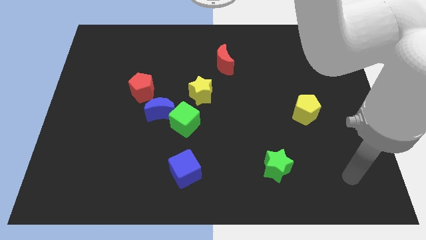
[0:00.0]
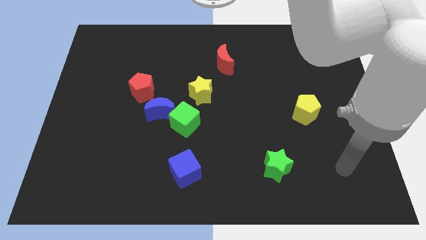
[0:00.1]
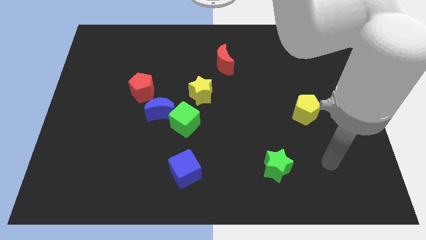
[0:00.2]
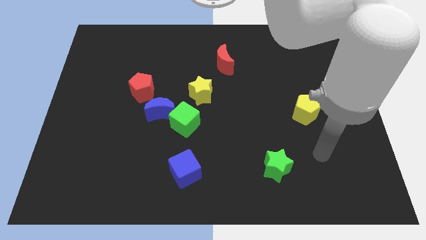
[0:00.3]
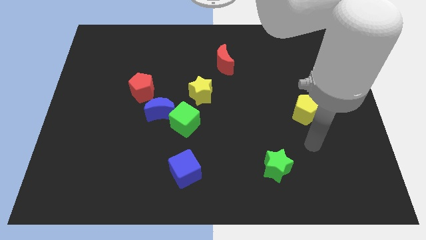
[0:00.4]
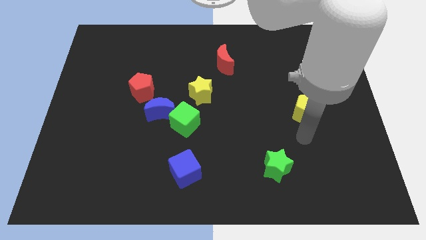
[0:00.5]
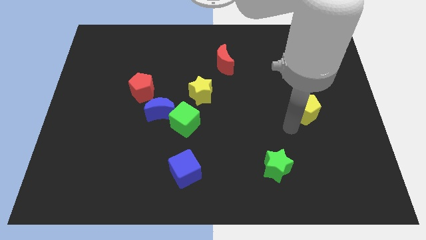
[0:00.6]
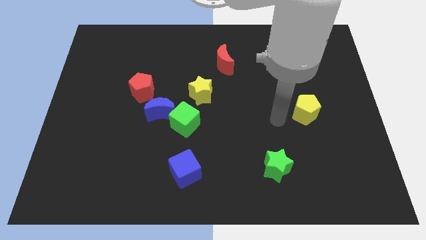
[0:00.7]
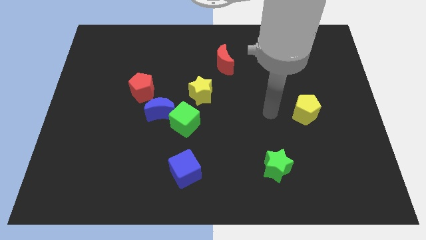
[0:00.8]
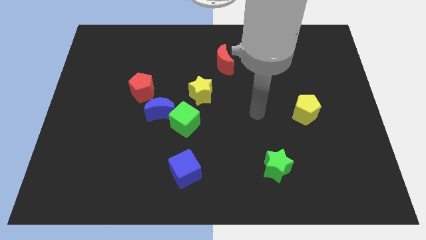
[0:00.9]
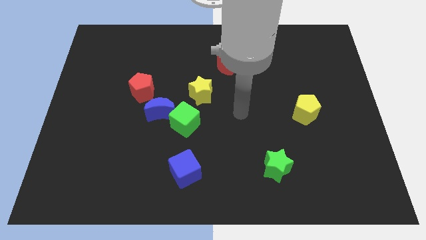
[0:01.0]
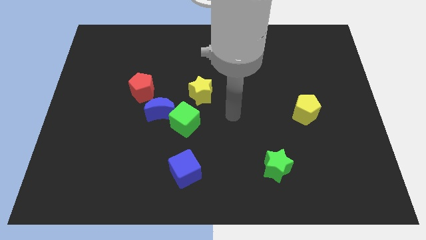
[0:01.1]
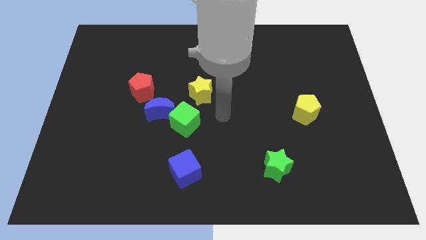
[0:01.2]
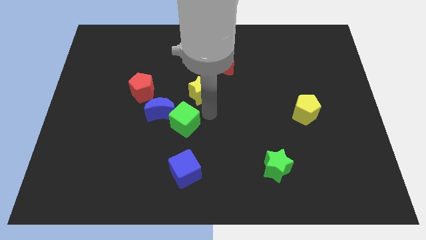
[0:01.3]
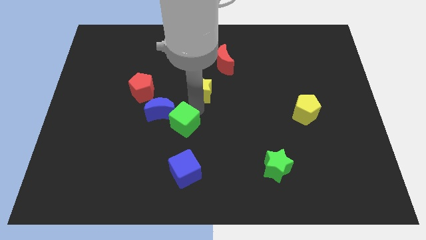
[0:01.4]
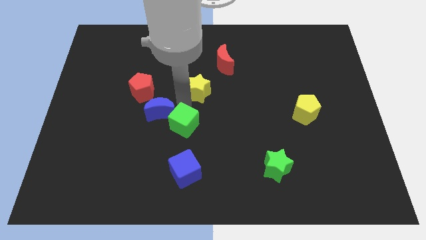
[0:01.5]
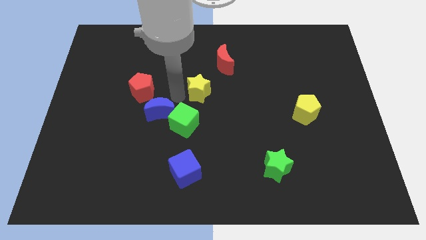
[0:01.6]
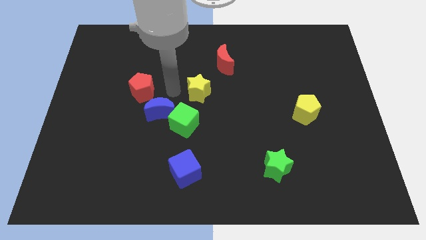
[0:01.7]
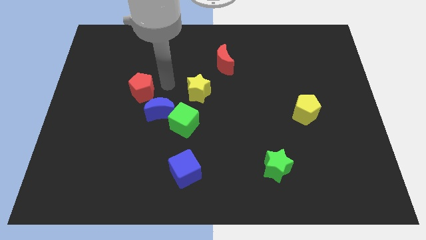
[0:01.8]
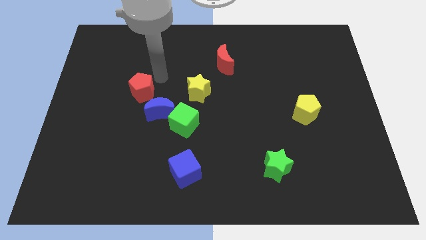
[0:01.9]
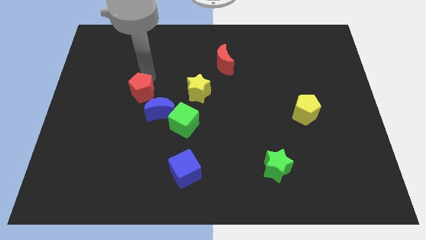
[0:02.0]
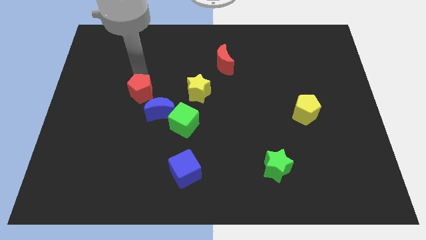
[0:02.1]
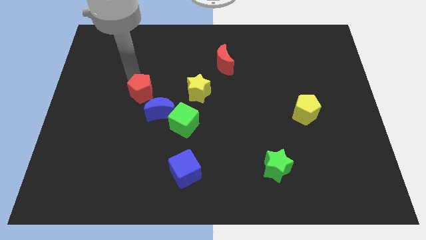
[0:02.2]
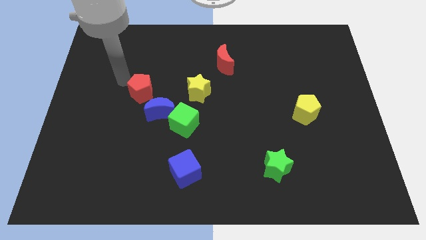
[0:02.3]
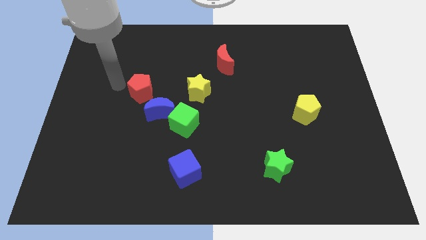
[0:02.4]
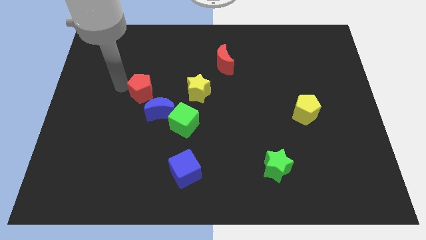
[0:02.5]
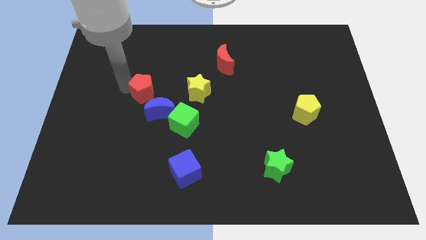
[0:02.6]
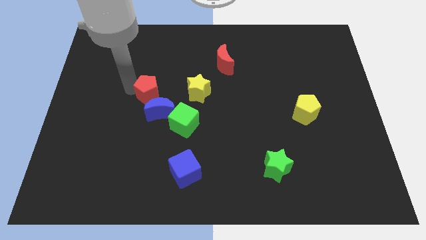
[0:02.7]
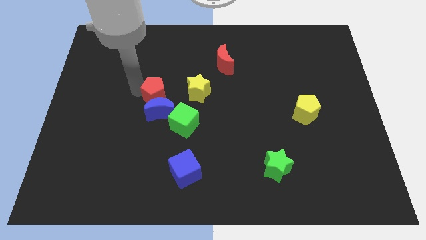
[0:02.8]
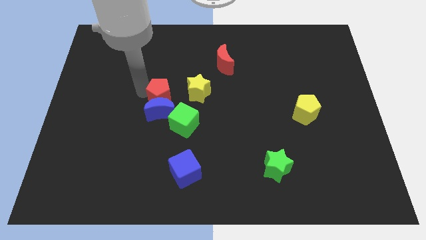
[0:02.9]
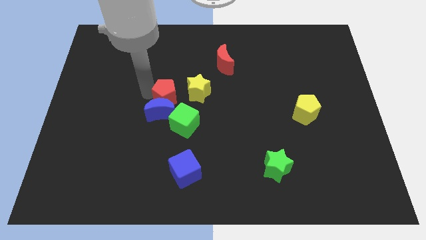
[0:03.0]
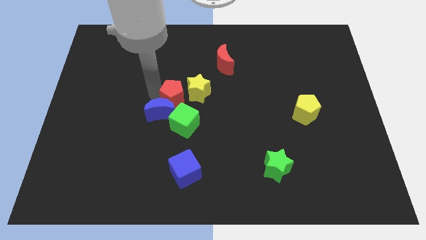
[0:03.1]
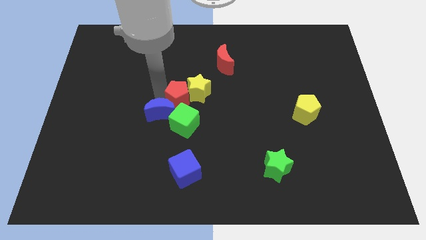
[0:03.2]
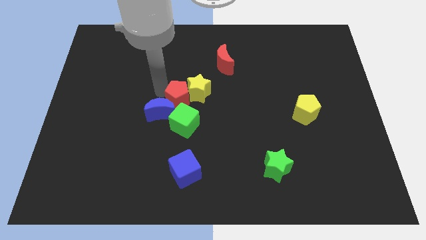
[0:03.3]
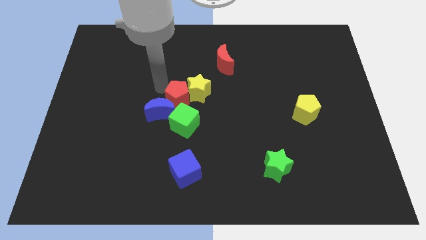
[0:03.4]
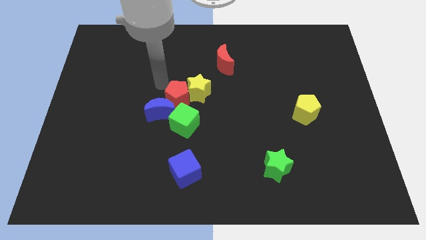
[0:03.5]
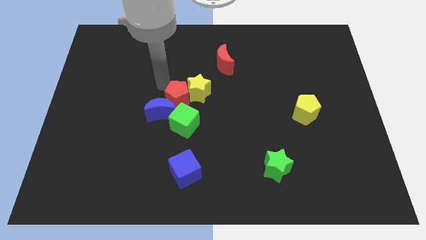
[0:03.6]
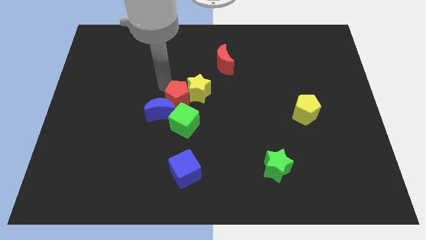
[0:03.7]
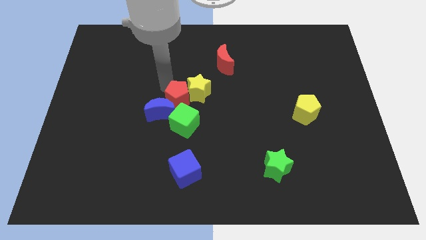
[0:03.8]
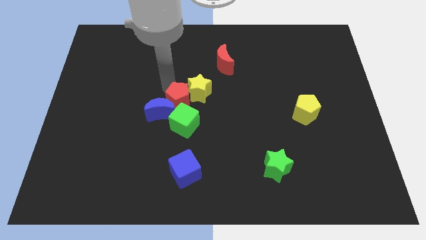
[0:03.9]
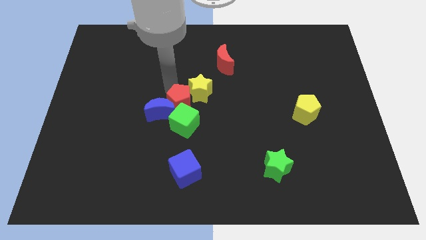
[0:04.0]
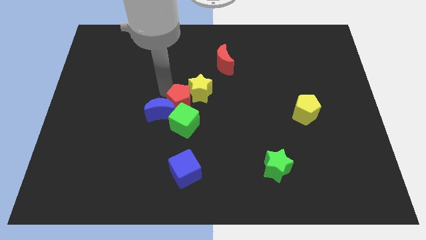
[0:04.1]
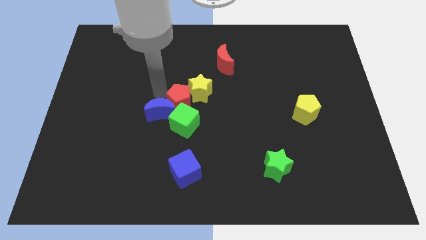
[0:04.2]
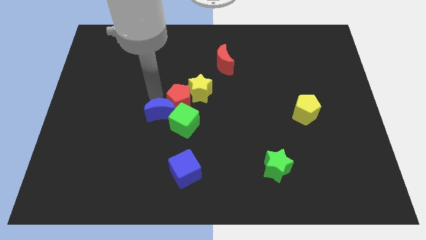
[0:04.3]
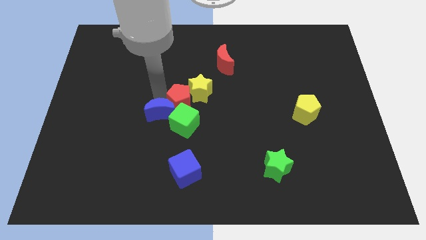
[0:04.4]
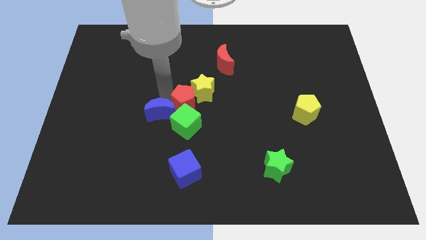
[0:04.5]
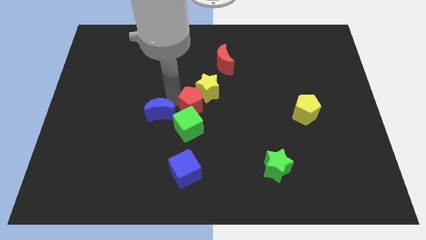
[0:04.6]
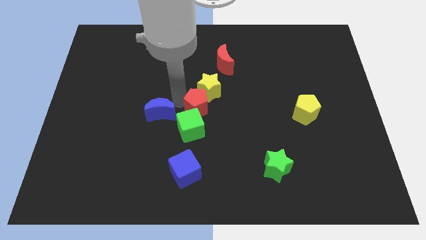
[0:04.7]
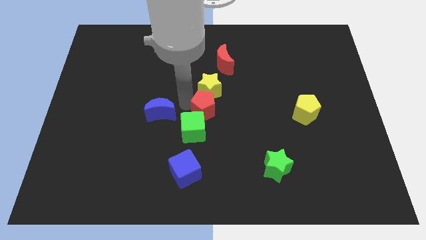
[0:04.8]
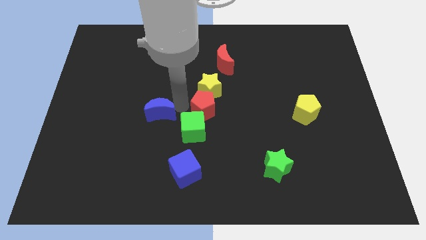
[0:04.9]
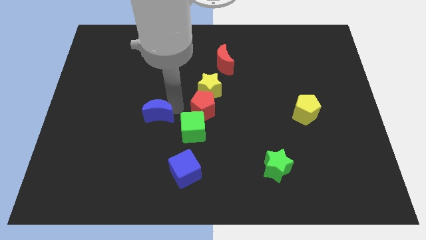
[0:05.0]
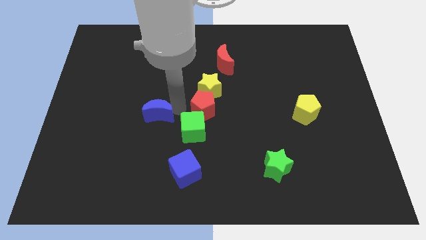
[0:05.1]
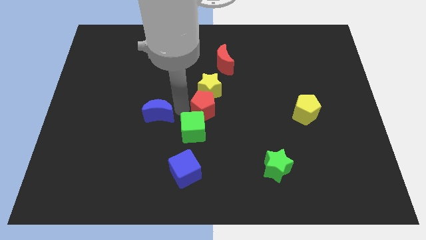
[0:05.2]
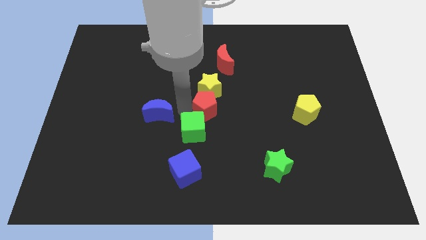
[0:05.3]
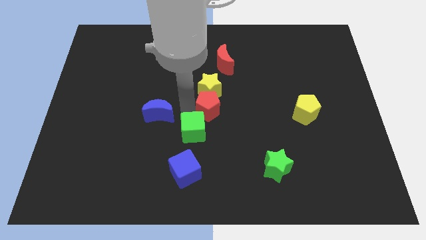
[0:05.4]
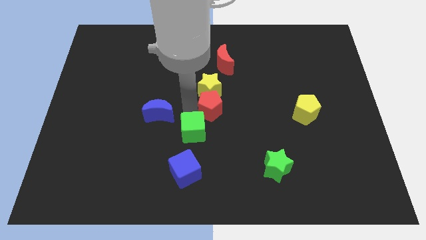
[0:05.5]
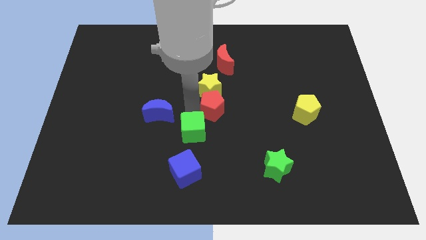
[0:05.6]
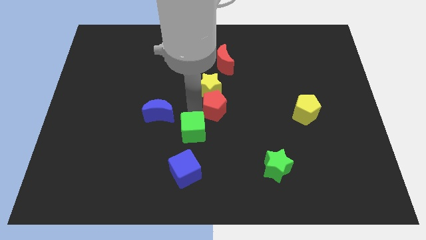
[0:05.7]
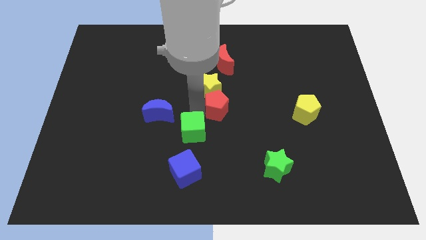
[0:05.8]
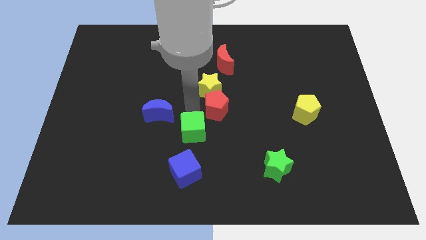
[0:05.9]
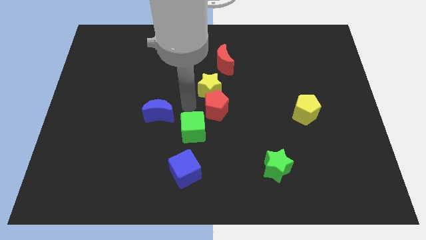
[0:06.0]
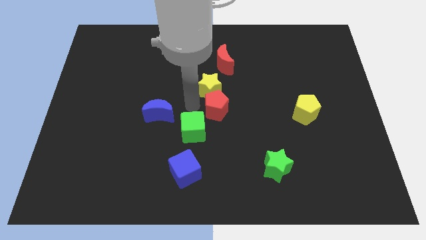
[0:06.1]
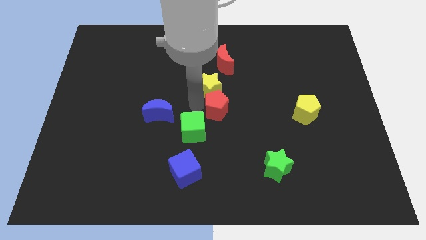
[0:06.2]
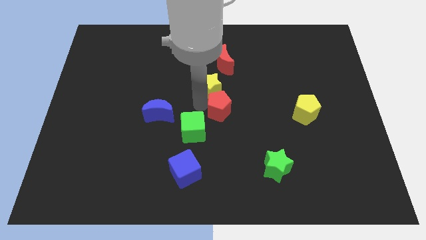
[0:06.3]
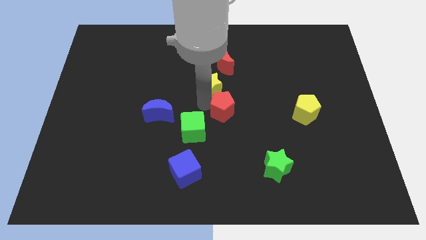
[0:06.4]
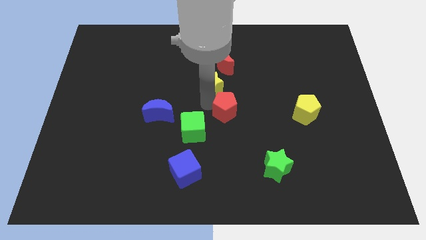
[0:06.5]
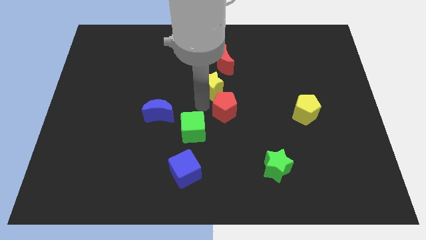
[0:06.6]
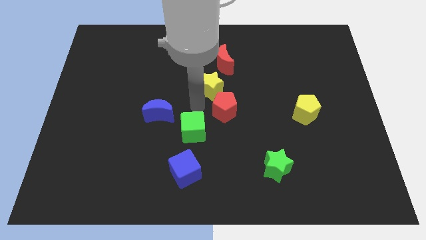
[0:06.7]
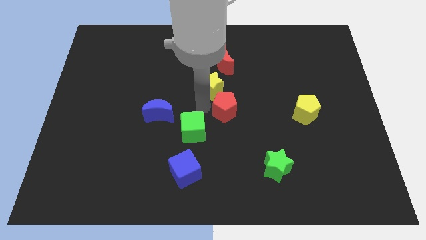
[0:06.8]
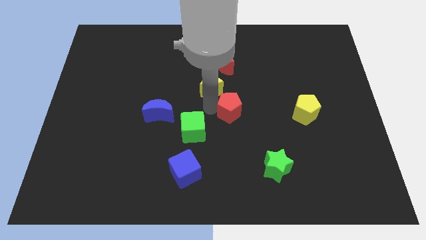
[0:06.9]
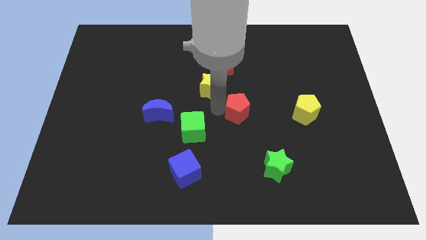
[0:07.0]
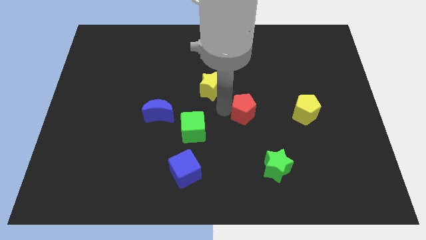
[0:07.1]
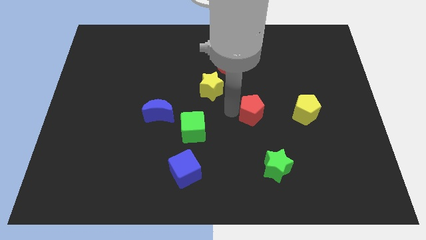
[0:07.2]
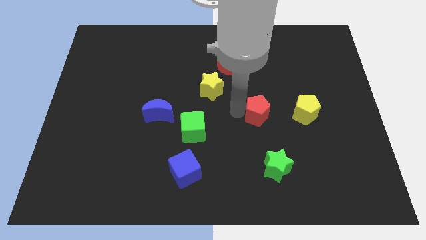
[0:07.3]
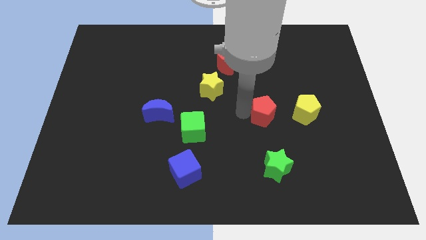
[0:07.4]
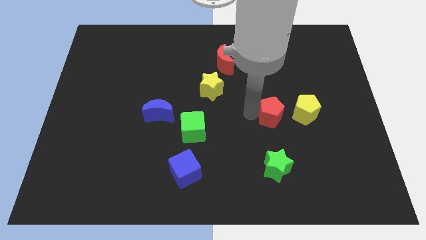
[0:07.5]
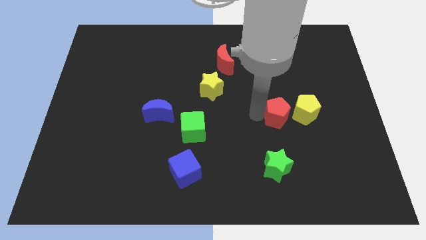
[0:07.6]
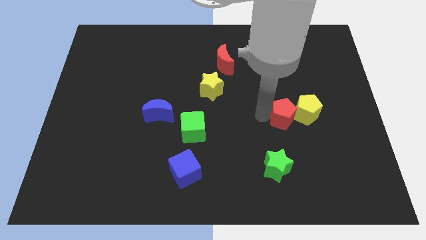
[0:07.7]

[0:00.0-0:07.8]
move the red pentagon next to the yellow pentagon
